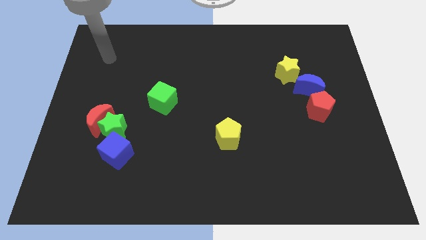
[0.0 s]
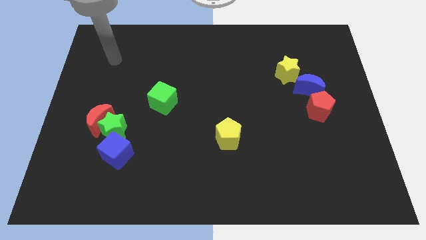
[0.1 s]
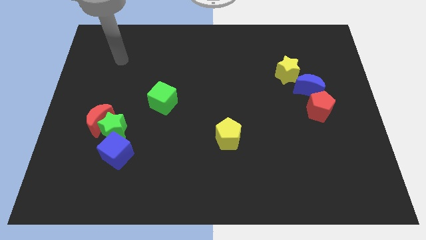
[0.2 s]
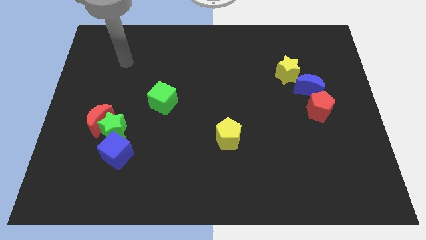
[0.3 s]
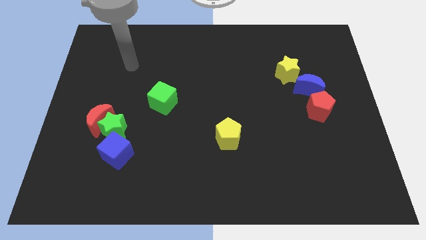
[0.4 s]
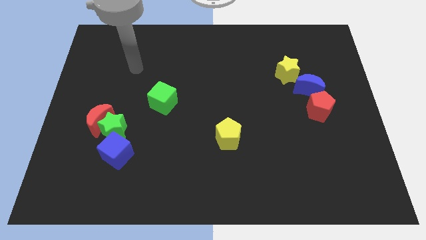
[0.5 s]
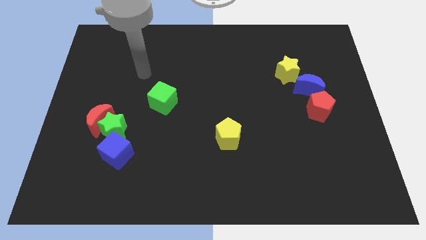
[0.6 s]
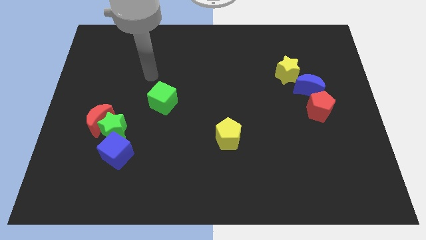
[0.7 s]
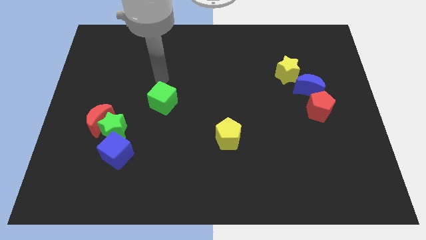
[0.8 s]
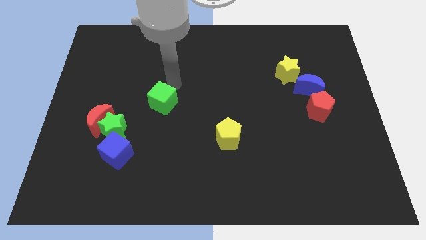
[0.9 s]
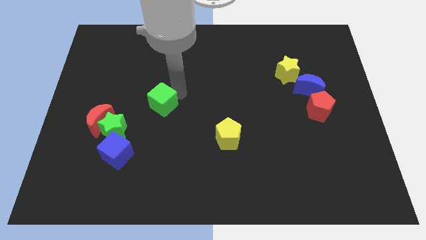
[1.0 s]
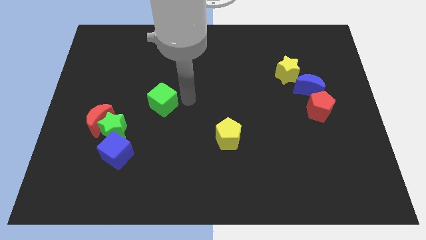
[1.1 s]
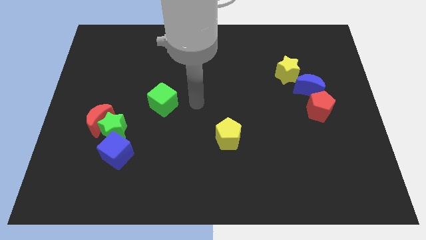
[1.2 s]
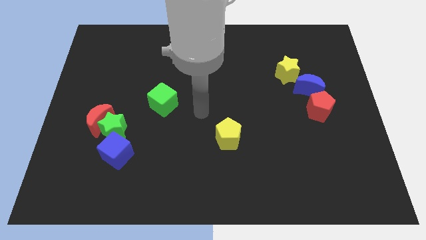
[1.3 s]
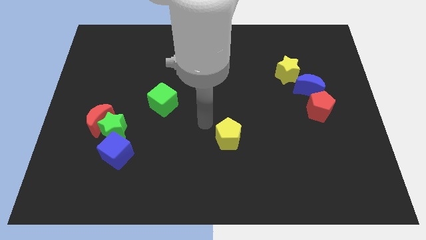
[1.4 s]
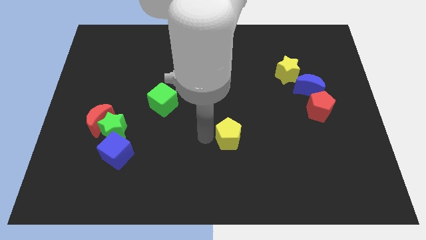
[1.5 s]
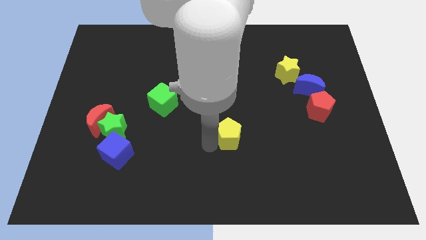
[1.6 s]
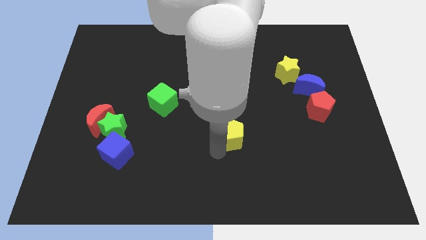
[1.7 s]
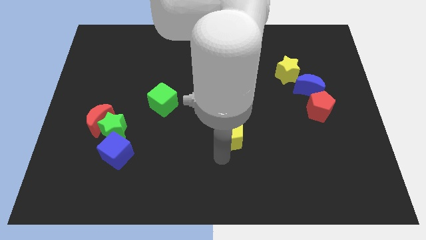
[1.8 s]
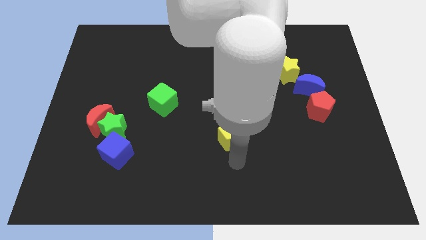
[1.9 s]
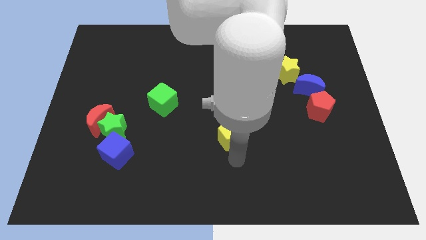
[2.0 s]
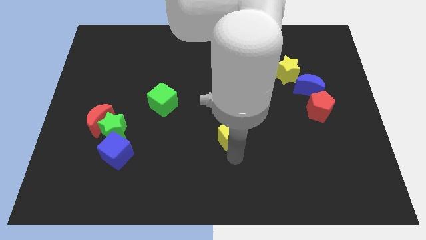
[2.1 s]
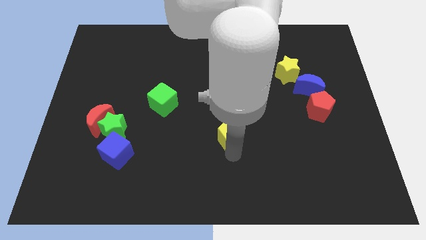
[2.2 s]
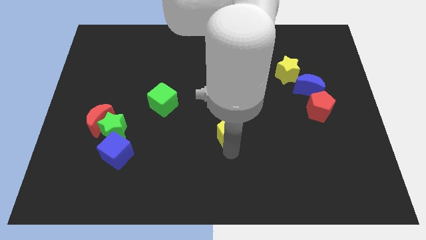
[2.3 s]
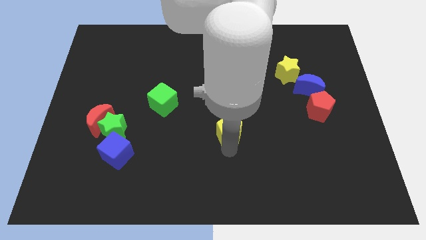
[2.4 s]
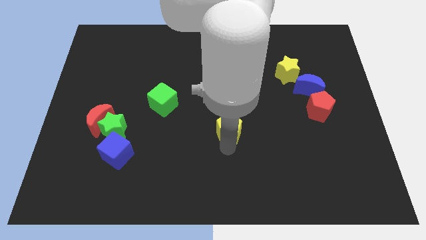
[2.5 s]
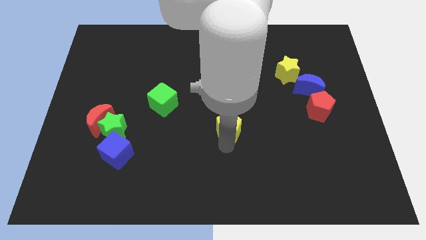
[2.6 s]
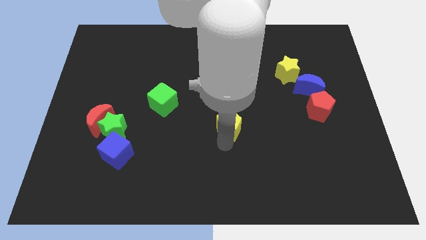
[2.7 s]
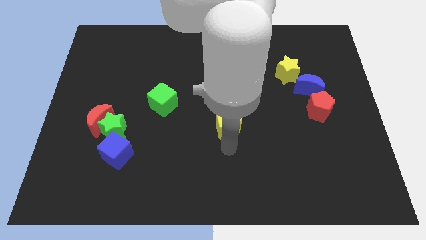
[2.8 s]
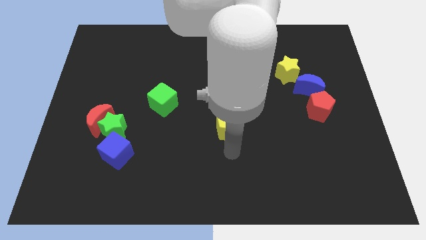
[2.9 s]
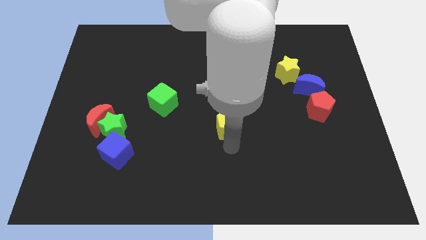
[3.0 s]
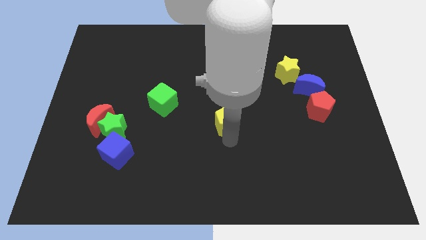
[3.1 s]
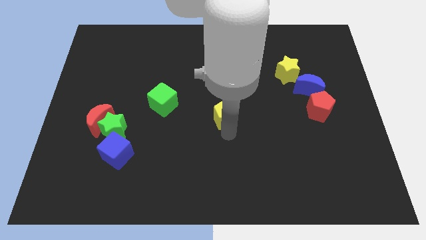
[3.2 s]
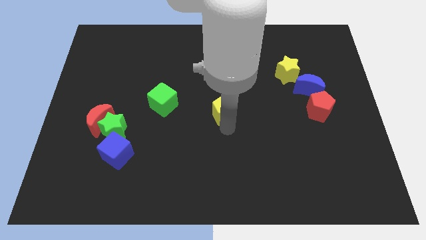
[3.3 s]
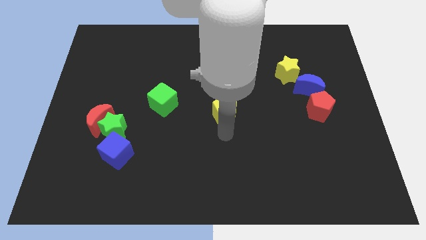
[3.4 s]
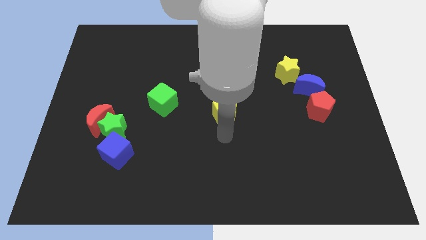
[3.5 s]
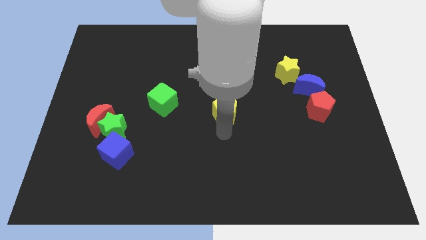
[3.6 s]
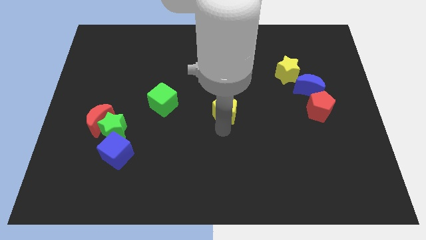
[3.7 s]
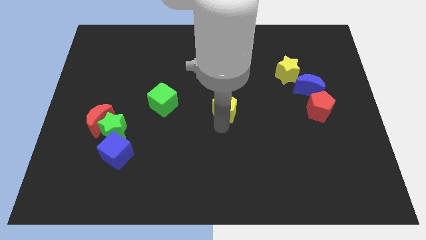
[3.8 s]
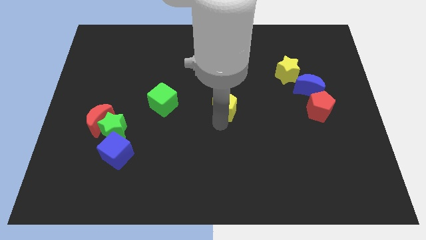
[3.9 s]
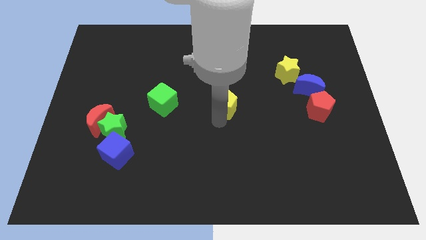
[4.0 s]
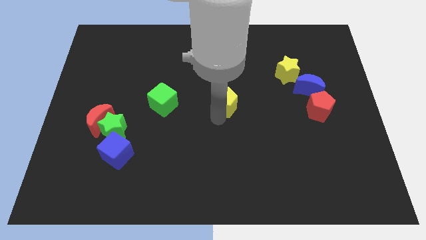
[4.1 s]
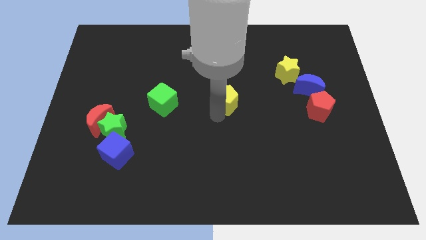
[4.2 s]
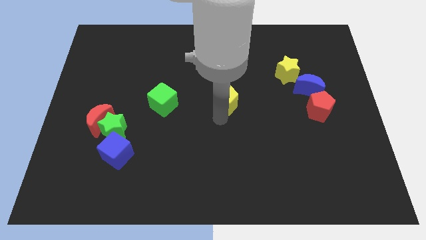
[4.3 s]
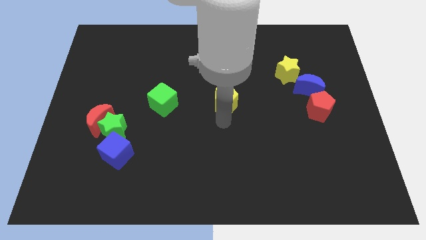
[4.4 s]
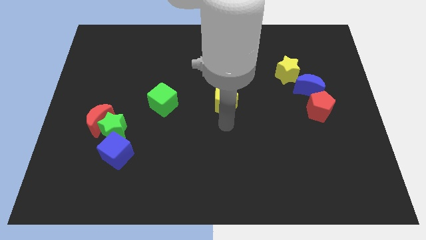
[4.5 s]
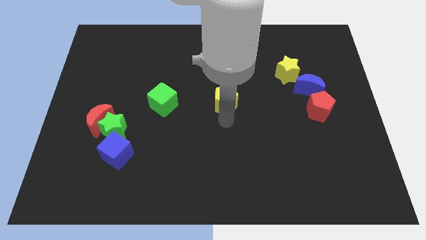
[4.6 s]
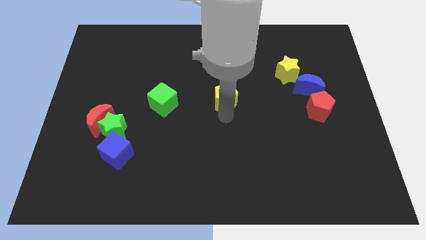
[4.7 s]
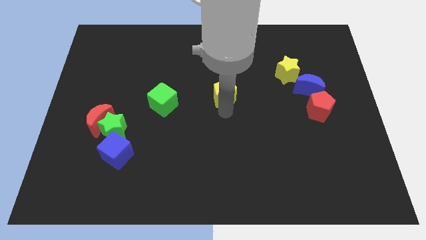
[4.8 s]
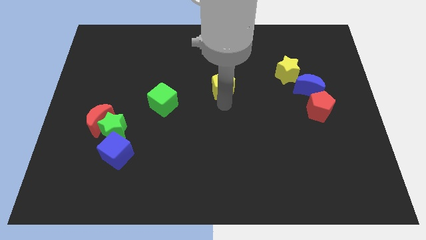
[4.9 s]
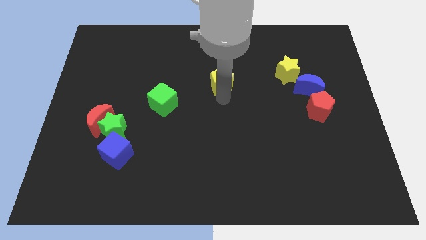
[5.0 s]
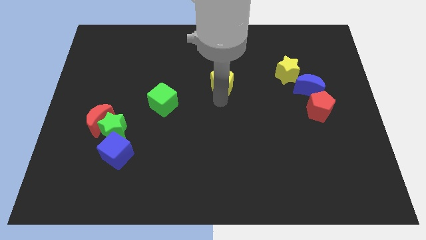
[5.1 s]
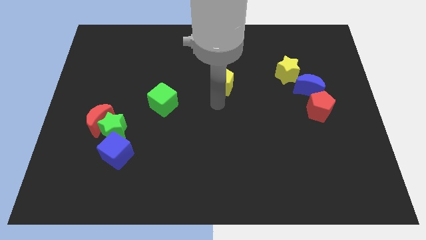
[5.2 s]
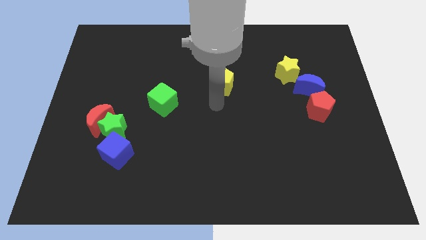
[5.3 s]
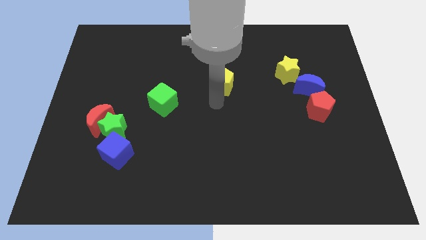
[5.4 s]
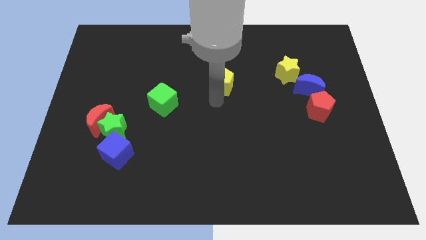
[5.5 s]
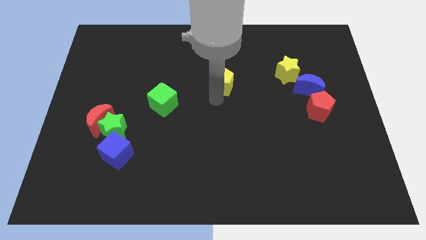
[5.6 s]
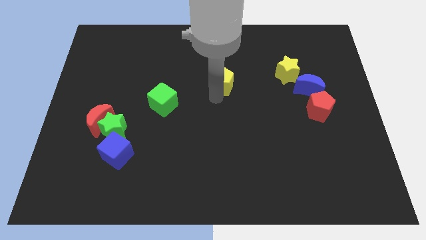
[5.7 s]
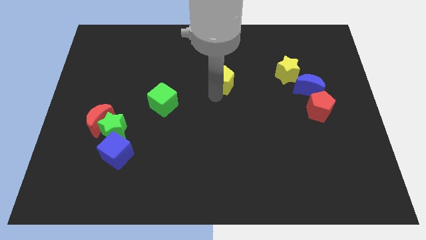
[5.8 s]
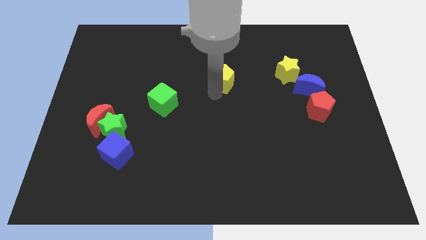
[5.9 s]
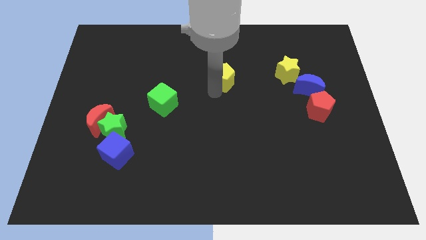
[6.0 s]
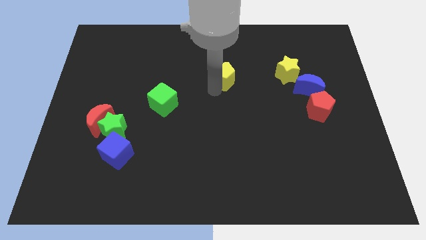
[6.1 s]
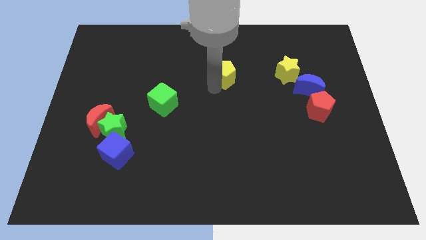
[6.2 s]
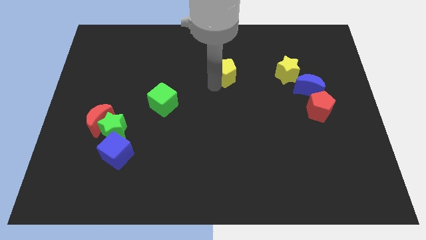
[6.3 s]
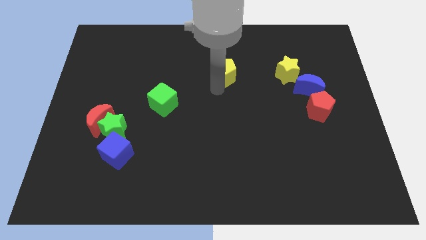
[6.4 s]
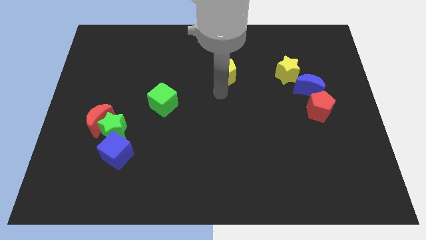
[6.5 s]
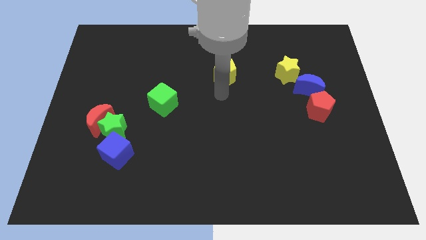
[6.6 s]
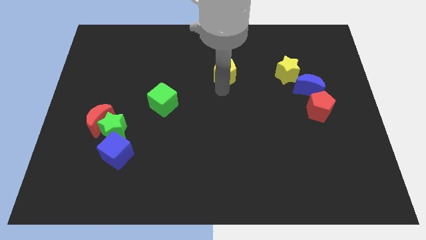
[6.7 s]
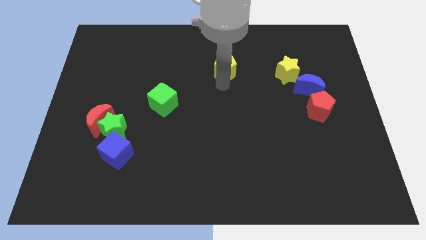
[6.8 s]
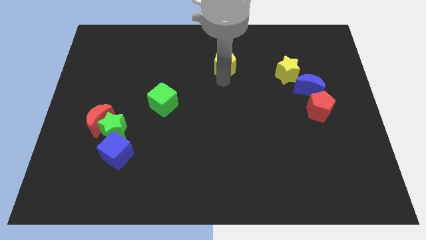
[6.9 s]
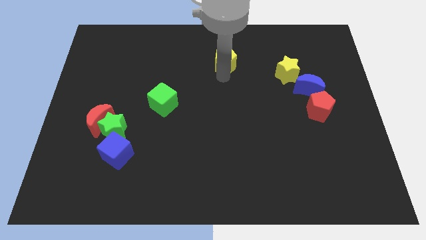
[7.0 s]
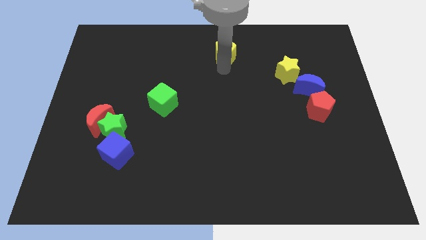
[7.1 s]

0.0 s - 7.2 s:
move the yellow pentagon to the towards your base
